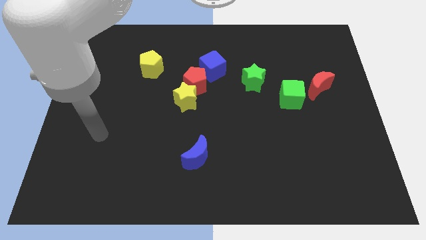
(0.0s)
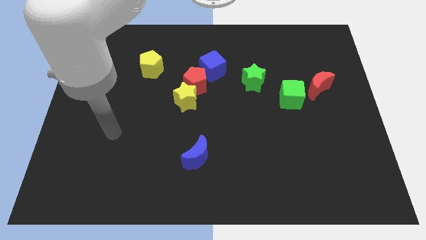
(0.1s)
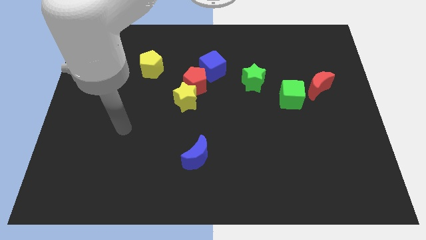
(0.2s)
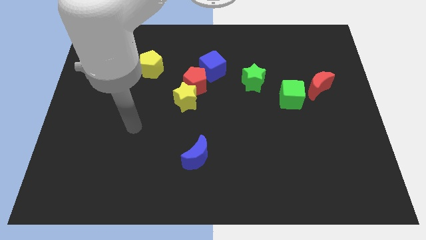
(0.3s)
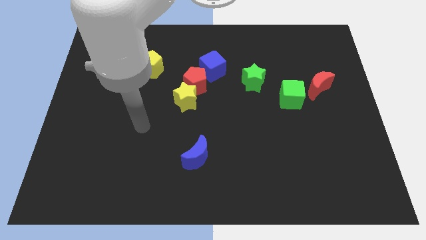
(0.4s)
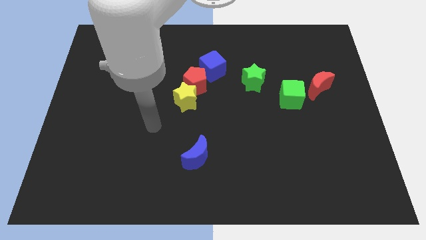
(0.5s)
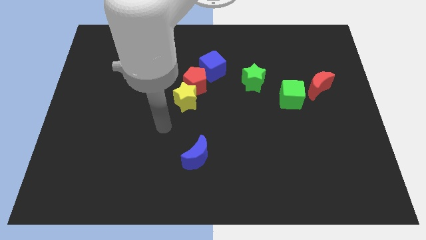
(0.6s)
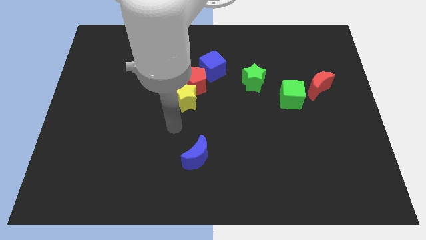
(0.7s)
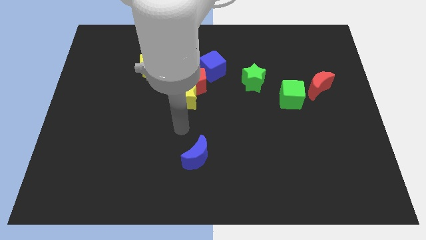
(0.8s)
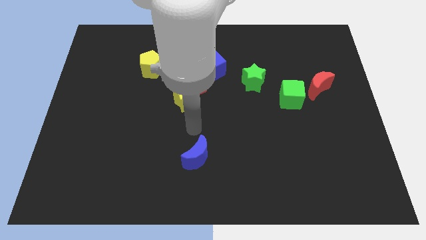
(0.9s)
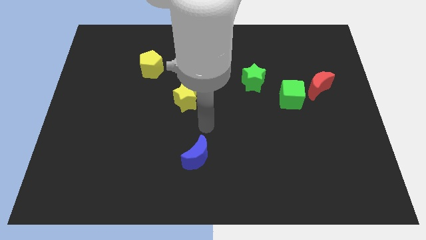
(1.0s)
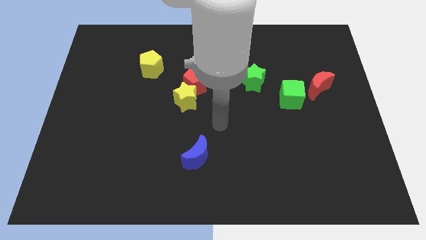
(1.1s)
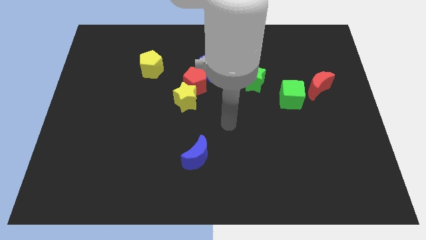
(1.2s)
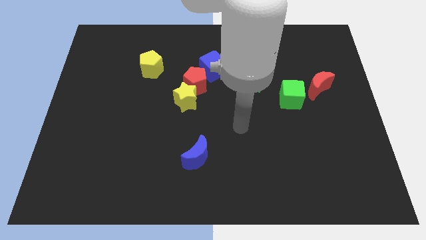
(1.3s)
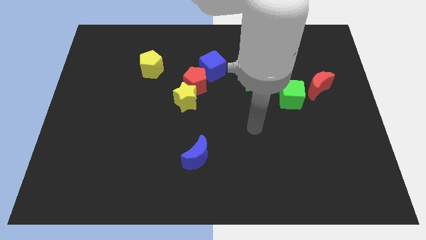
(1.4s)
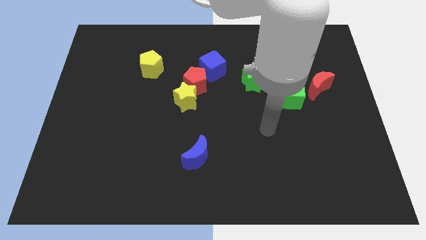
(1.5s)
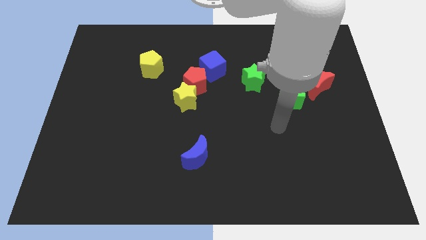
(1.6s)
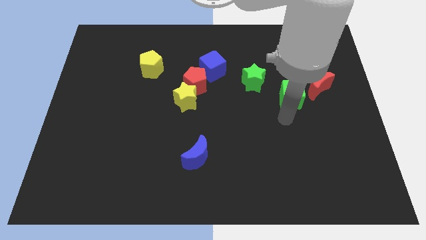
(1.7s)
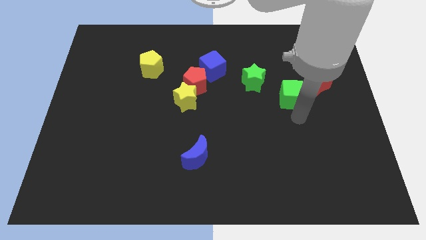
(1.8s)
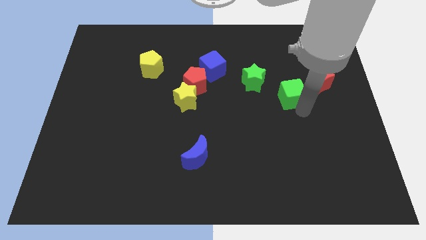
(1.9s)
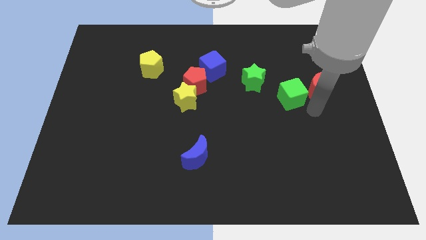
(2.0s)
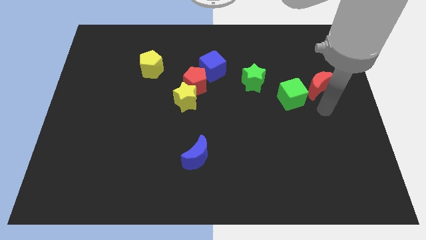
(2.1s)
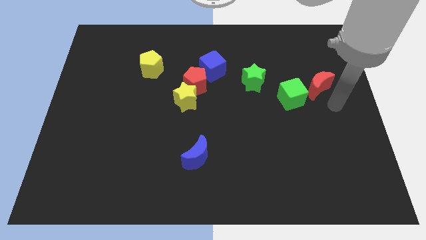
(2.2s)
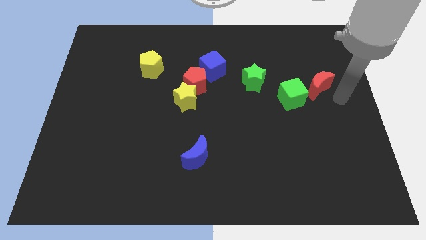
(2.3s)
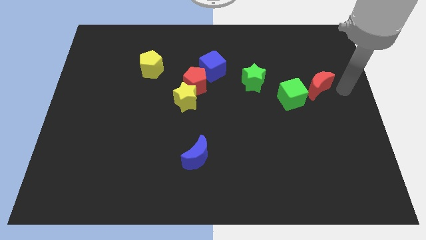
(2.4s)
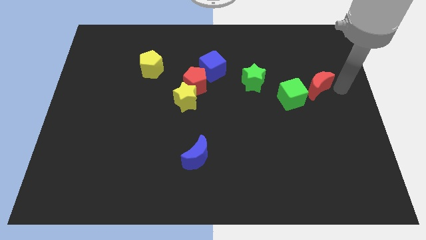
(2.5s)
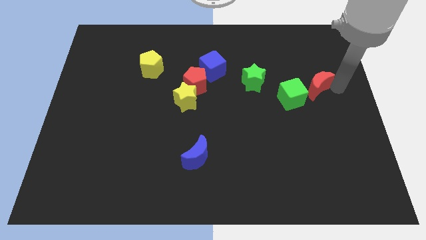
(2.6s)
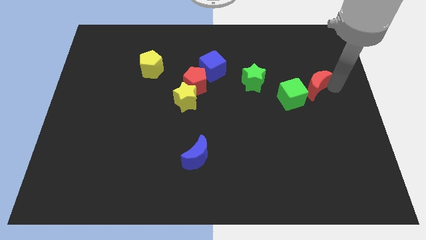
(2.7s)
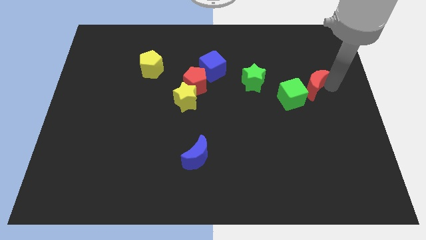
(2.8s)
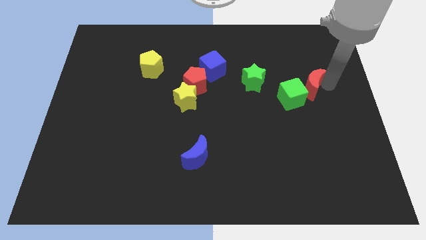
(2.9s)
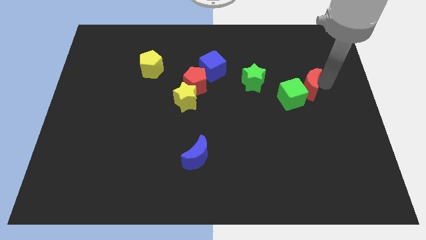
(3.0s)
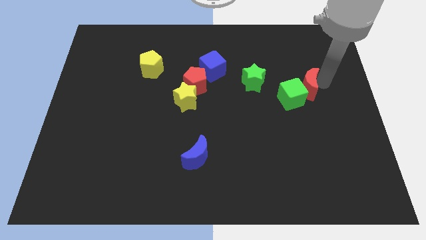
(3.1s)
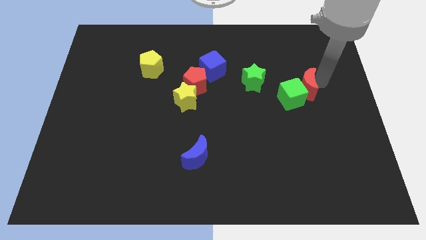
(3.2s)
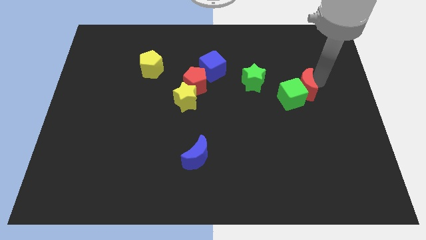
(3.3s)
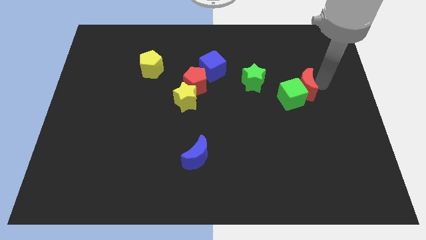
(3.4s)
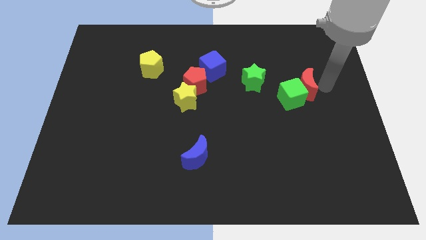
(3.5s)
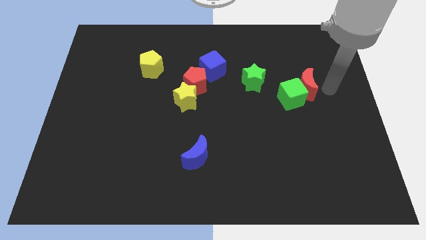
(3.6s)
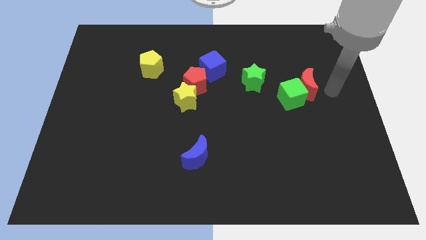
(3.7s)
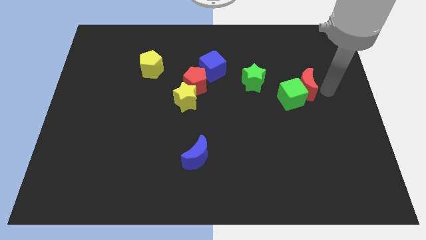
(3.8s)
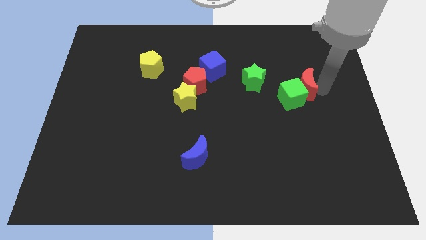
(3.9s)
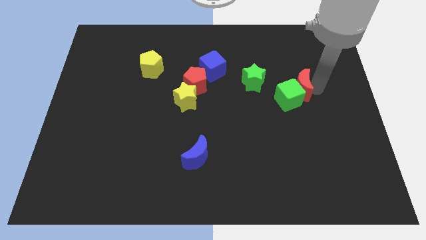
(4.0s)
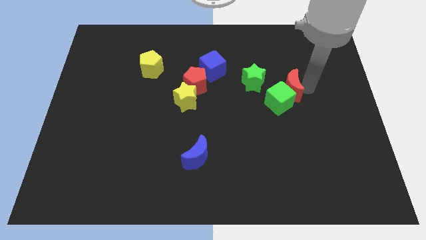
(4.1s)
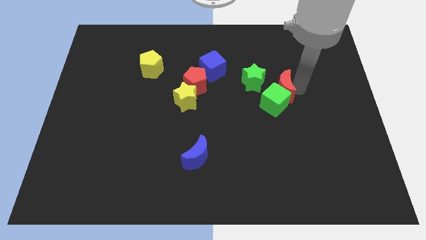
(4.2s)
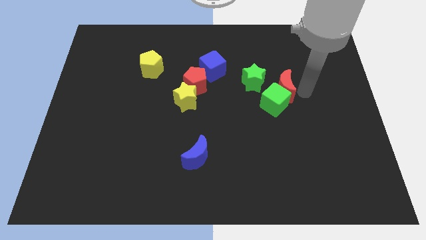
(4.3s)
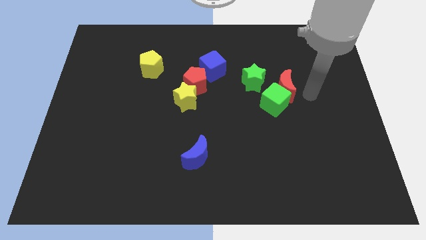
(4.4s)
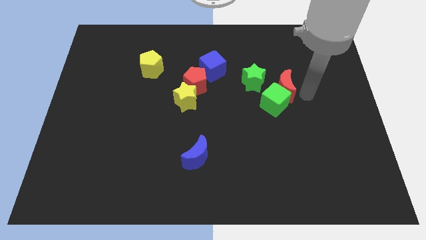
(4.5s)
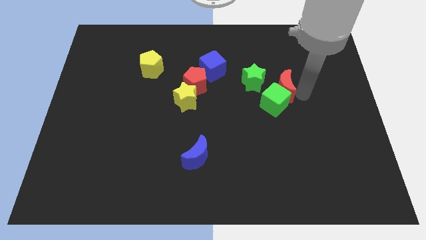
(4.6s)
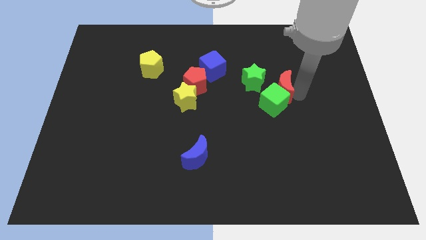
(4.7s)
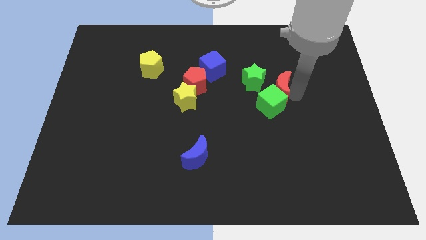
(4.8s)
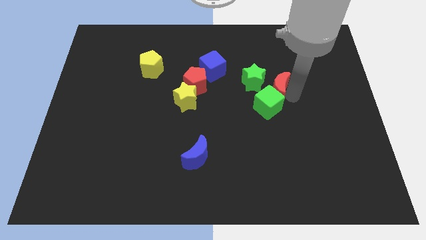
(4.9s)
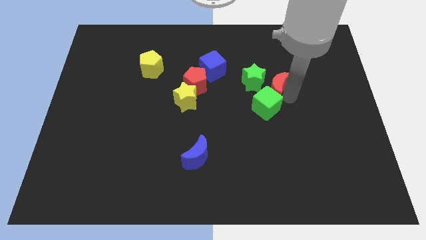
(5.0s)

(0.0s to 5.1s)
put the red moon next to the green star

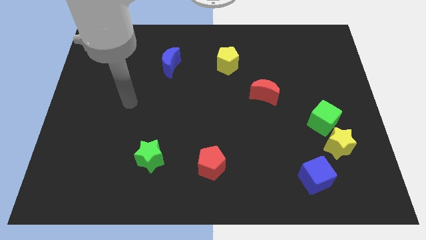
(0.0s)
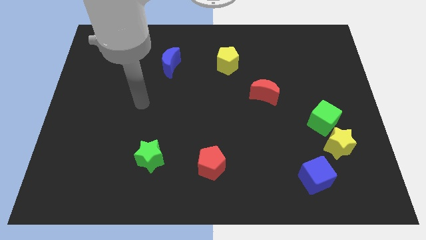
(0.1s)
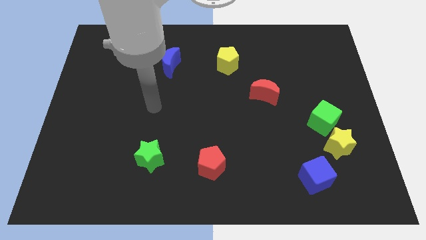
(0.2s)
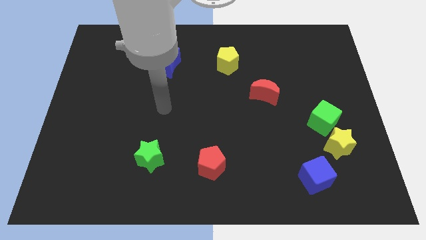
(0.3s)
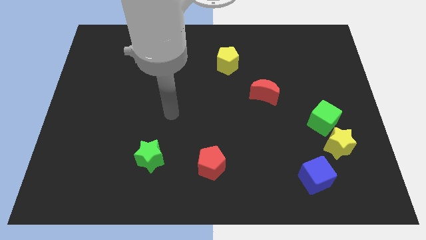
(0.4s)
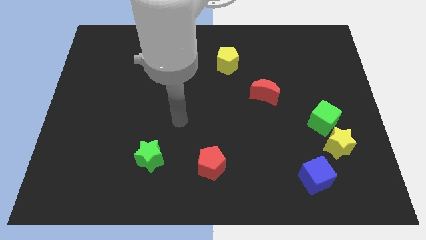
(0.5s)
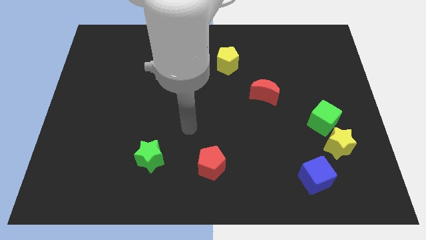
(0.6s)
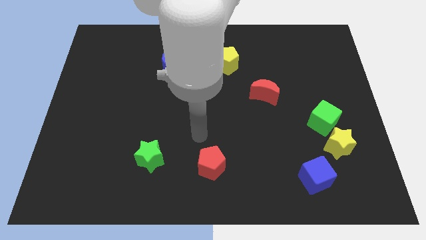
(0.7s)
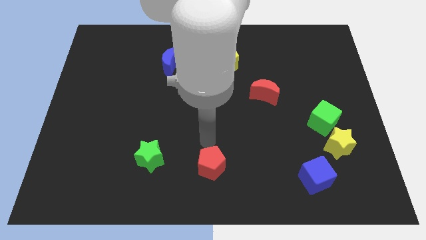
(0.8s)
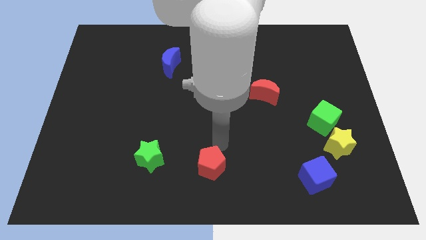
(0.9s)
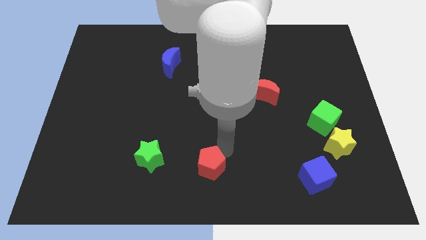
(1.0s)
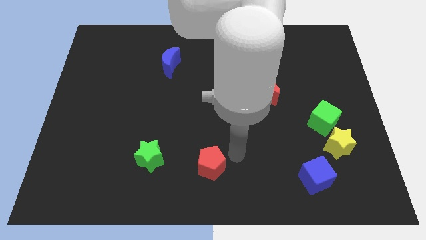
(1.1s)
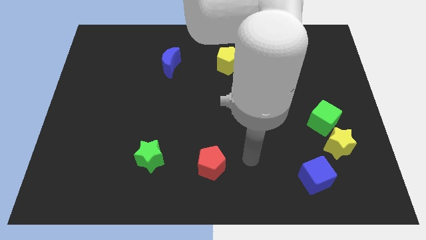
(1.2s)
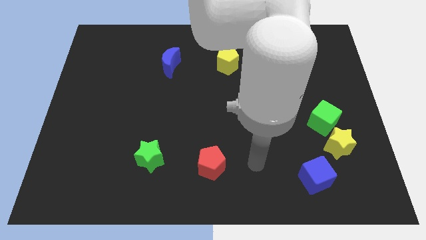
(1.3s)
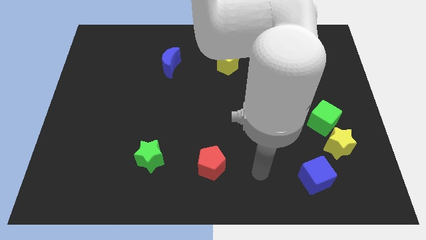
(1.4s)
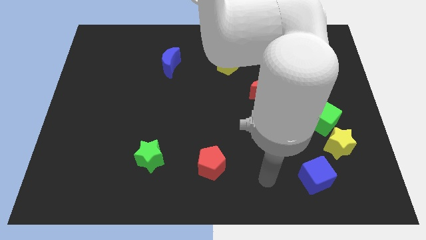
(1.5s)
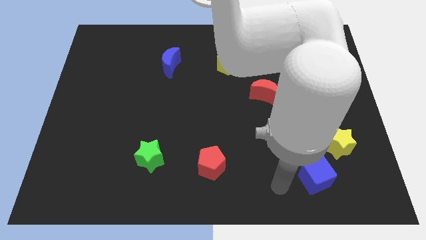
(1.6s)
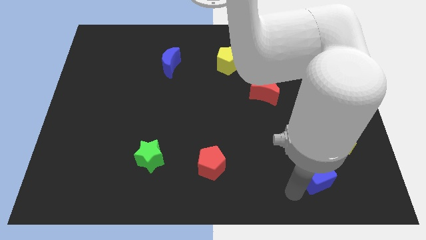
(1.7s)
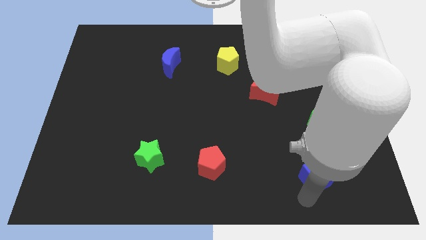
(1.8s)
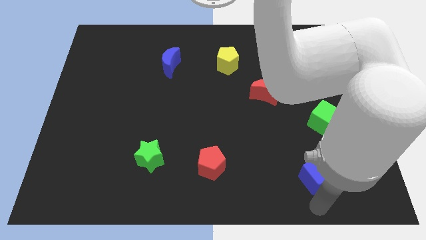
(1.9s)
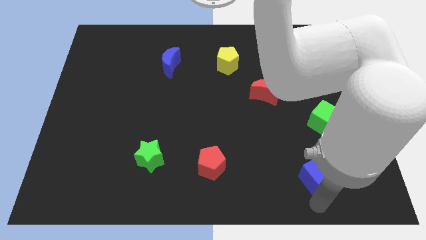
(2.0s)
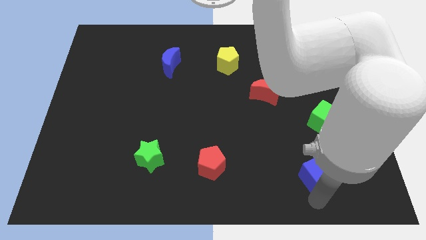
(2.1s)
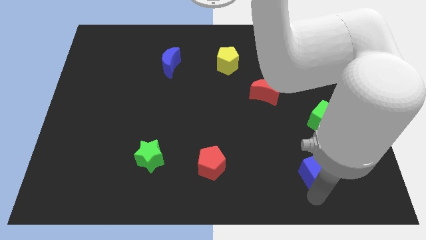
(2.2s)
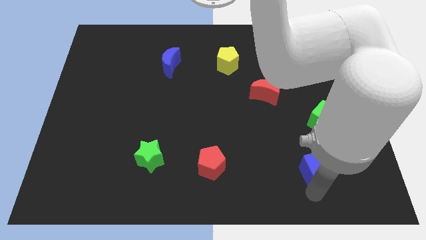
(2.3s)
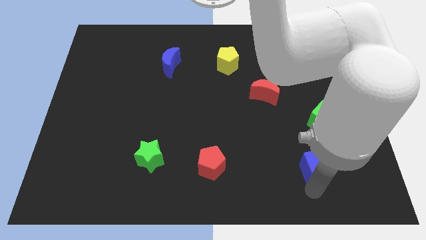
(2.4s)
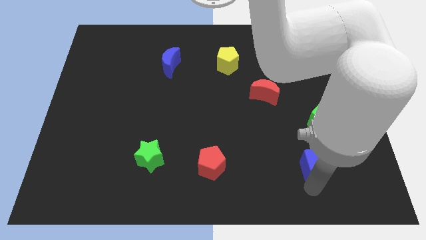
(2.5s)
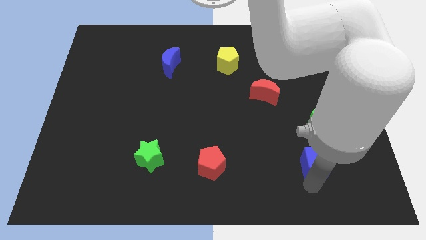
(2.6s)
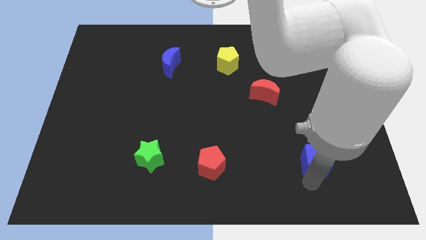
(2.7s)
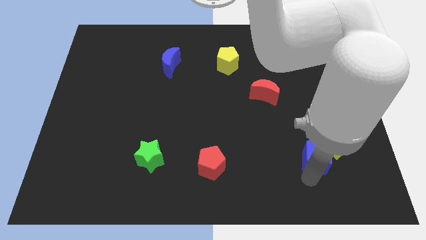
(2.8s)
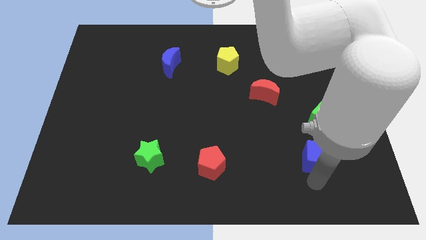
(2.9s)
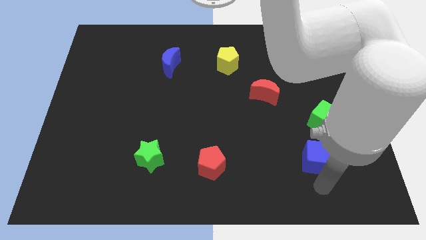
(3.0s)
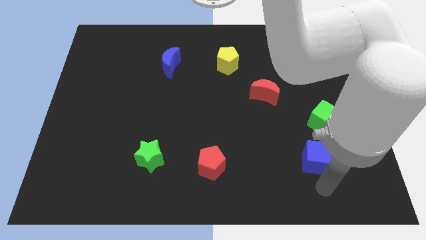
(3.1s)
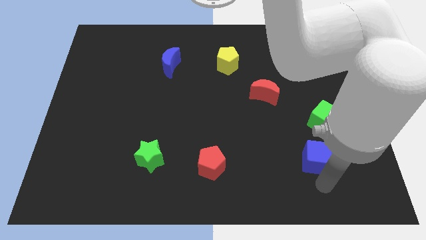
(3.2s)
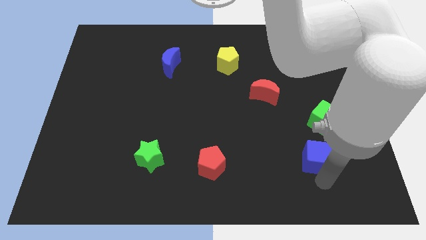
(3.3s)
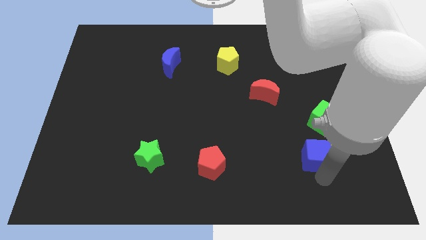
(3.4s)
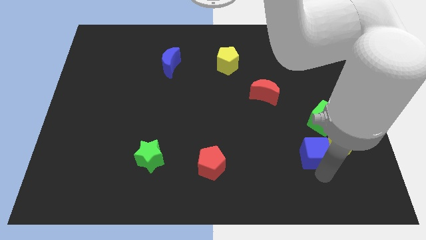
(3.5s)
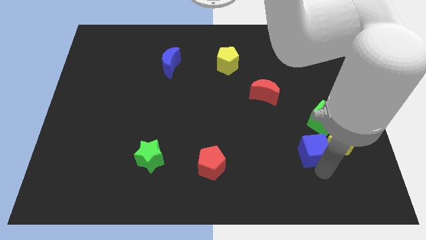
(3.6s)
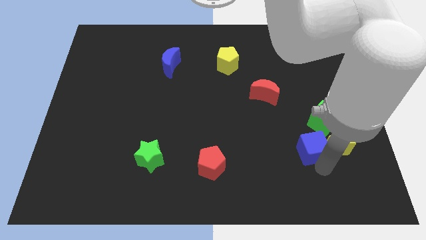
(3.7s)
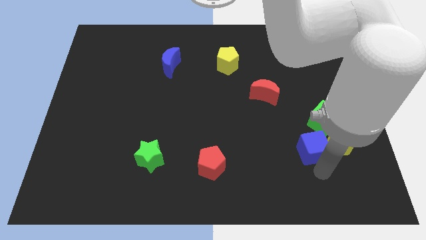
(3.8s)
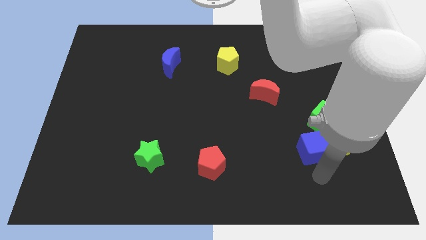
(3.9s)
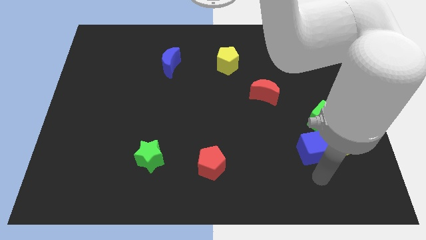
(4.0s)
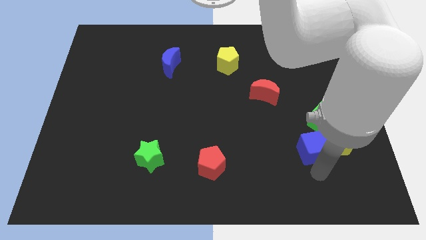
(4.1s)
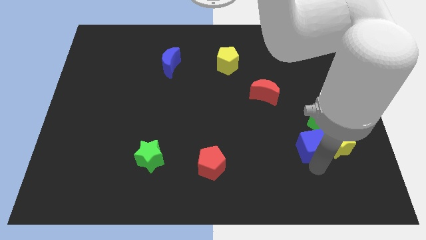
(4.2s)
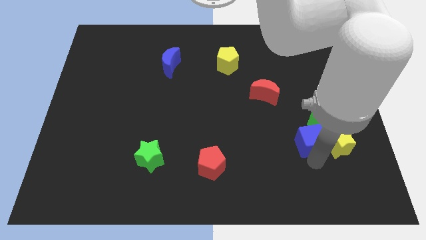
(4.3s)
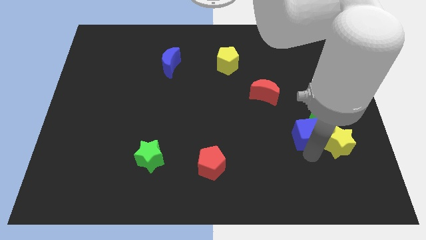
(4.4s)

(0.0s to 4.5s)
put the blue cube next to the green cube
